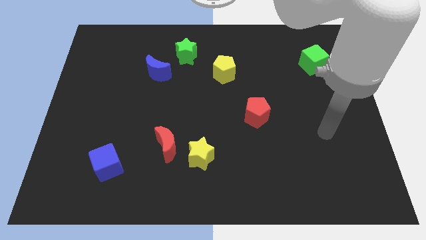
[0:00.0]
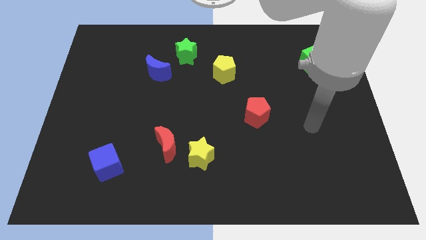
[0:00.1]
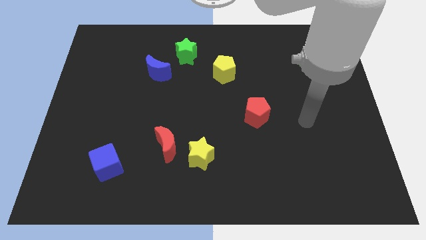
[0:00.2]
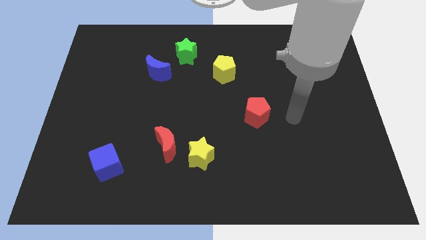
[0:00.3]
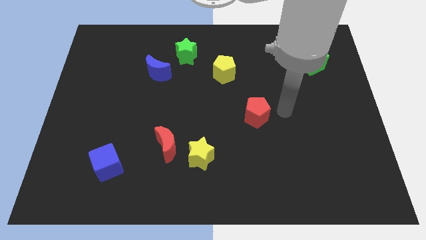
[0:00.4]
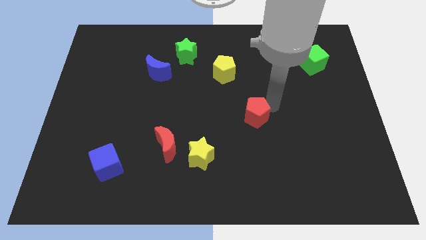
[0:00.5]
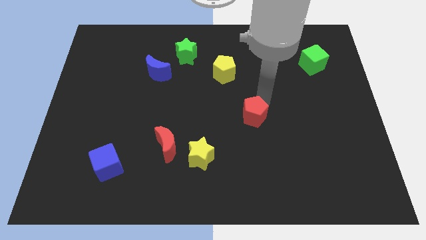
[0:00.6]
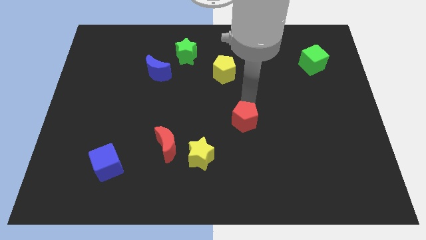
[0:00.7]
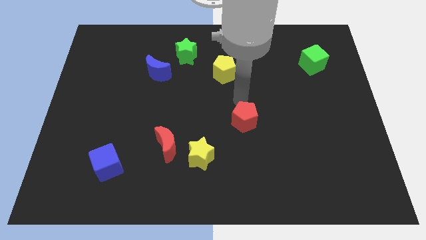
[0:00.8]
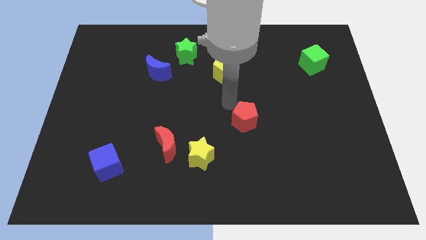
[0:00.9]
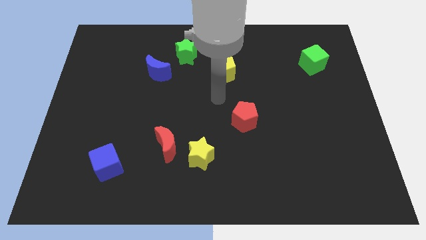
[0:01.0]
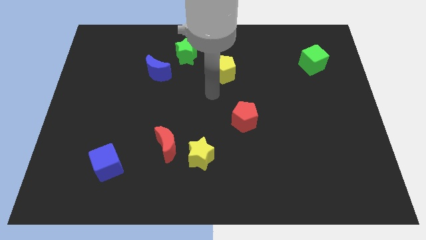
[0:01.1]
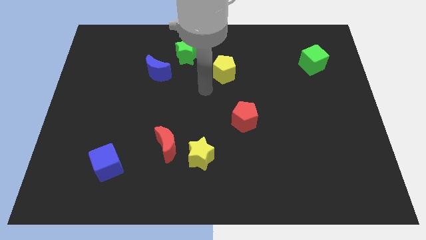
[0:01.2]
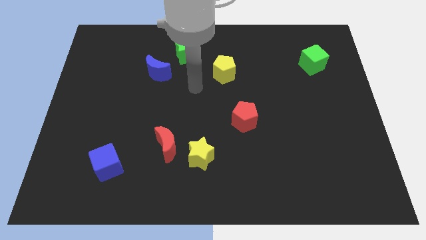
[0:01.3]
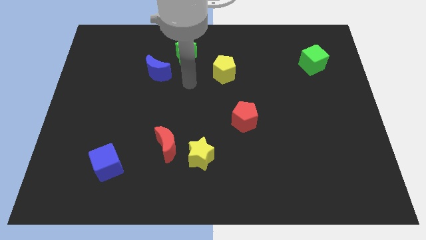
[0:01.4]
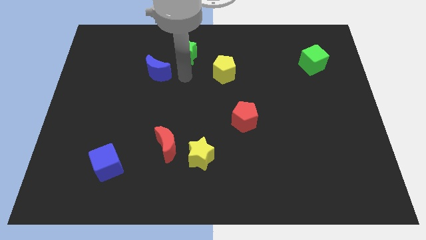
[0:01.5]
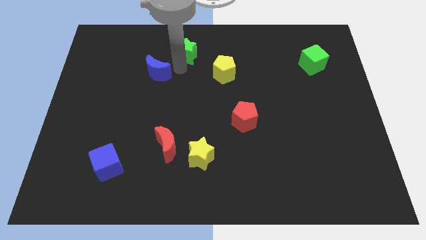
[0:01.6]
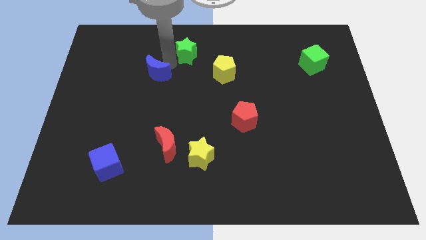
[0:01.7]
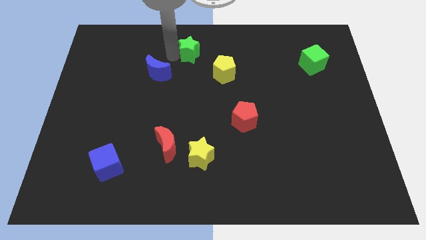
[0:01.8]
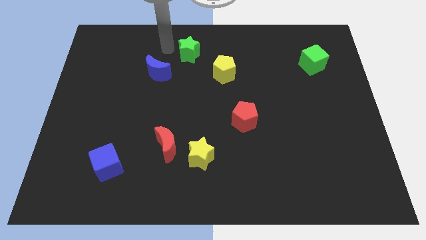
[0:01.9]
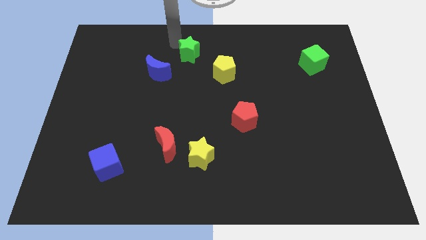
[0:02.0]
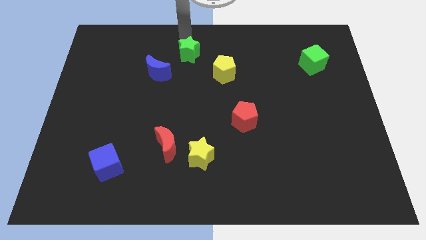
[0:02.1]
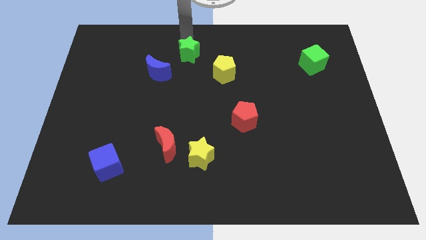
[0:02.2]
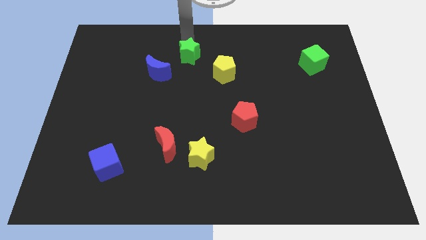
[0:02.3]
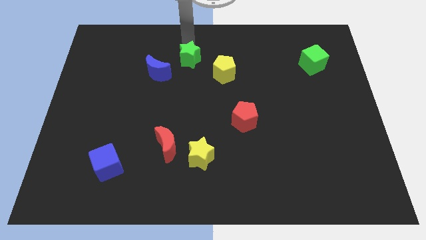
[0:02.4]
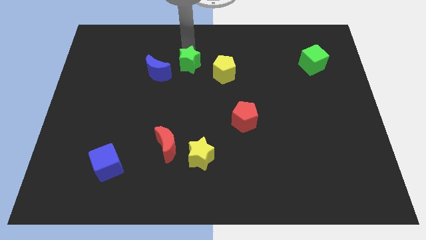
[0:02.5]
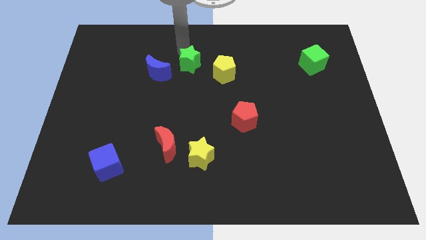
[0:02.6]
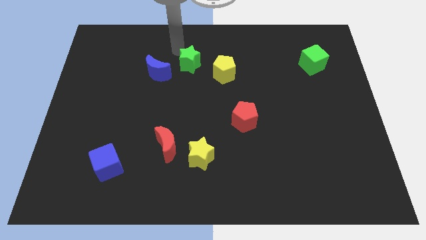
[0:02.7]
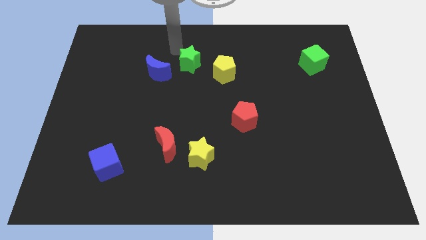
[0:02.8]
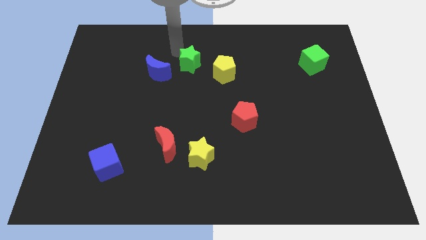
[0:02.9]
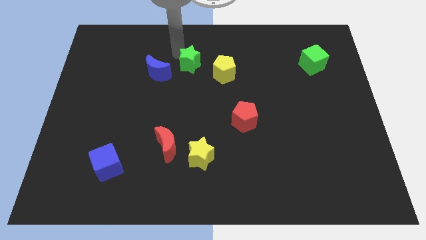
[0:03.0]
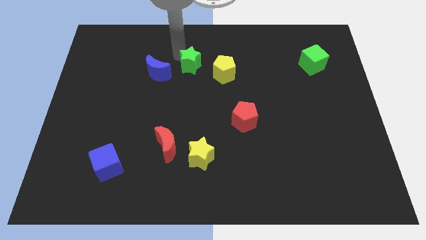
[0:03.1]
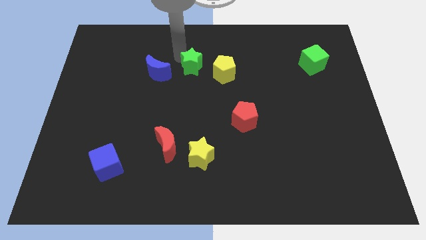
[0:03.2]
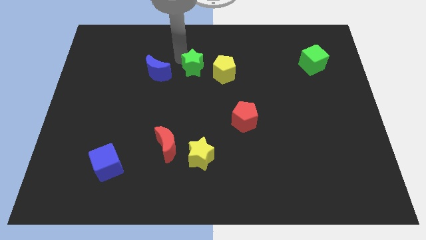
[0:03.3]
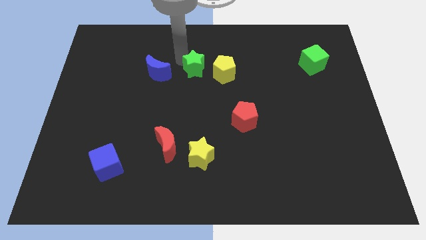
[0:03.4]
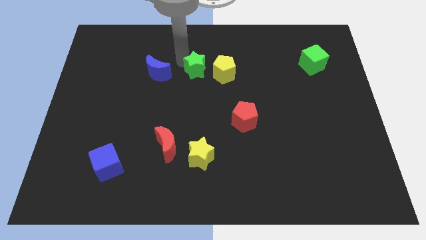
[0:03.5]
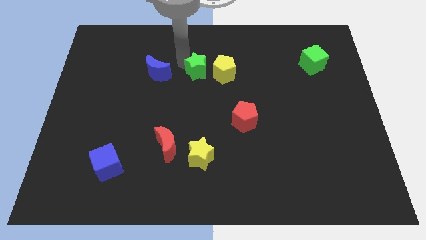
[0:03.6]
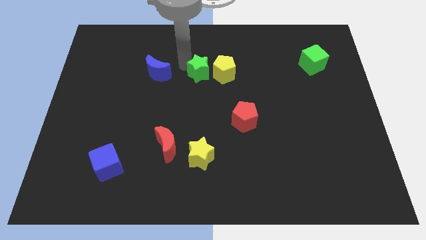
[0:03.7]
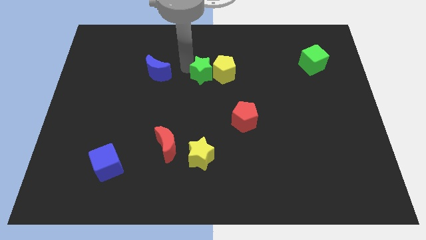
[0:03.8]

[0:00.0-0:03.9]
push the green star downwards and right slightly

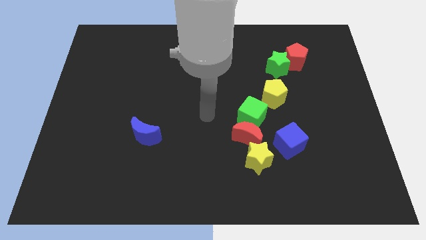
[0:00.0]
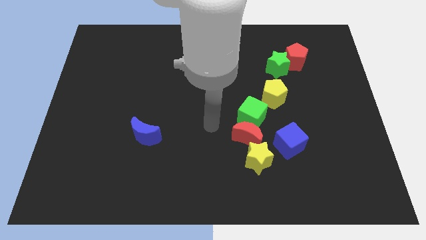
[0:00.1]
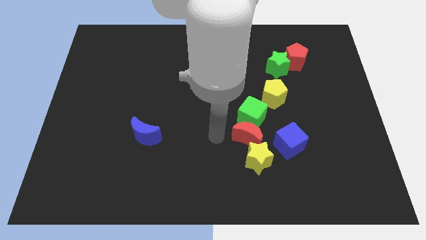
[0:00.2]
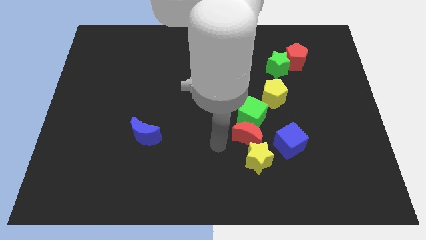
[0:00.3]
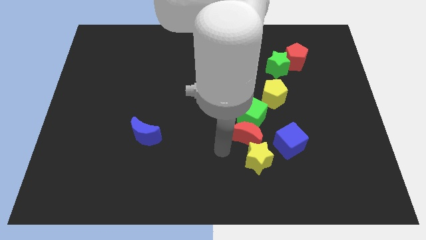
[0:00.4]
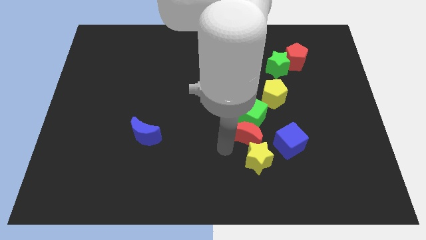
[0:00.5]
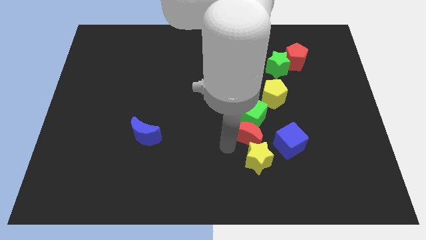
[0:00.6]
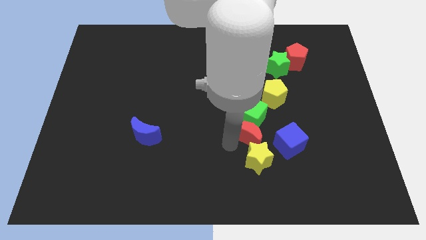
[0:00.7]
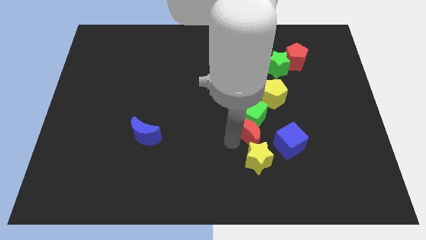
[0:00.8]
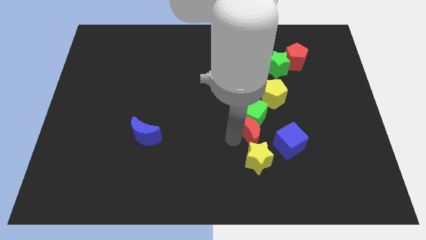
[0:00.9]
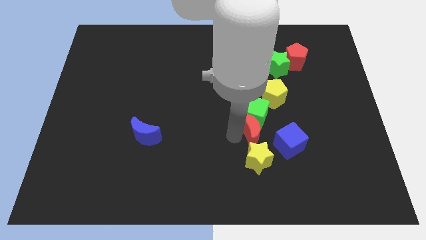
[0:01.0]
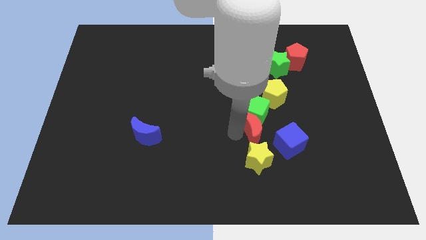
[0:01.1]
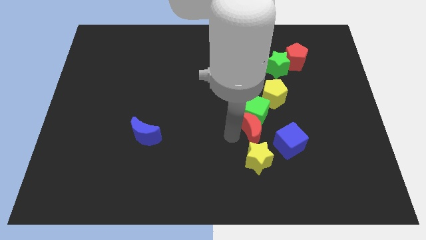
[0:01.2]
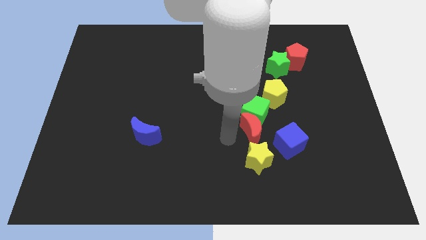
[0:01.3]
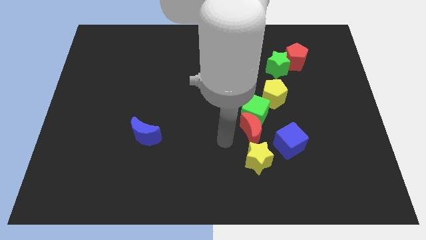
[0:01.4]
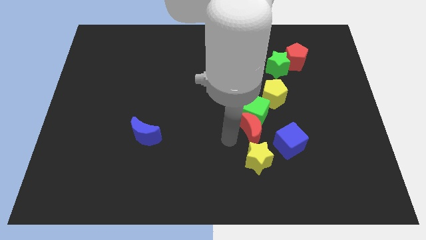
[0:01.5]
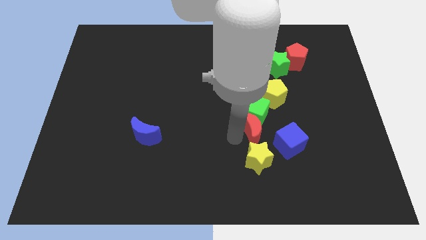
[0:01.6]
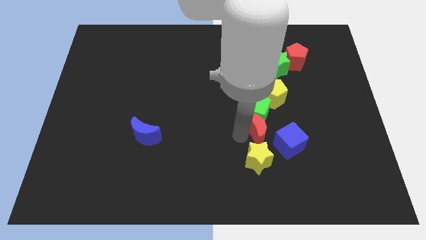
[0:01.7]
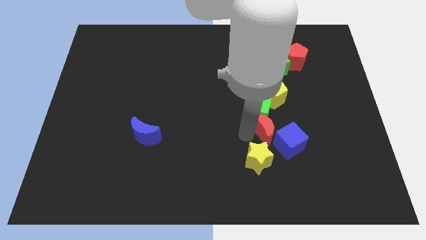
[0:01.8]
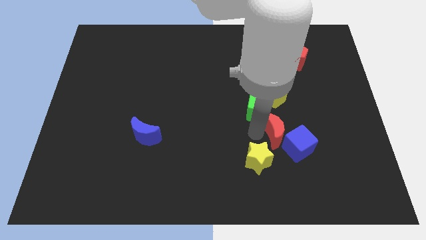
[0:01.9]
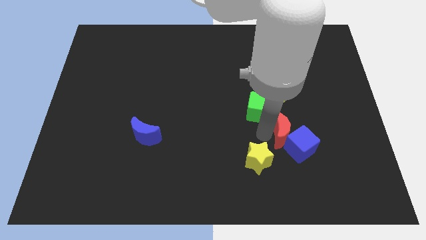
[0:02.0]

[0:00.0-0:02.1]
slightly push the red moon to the right

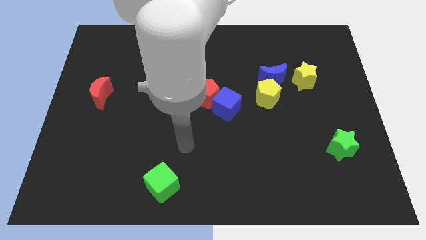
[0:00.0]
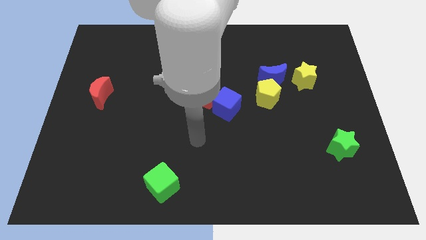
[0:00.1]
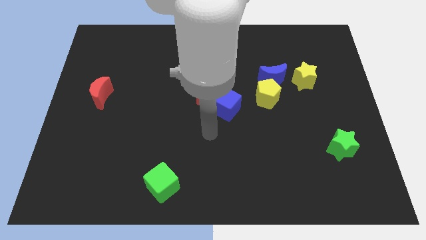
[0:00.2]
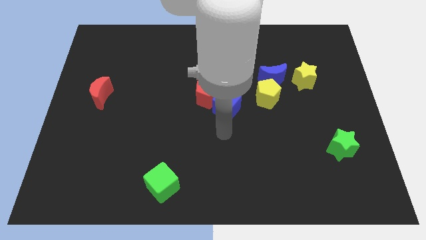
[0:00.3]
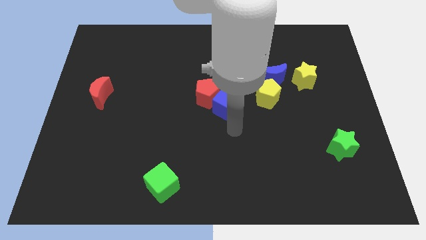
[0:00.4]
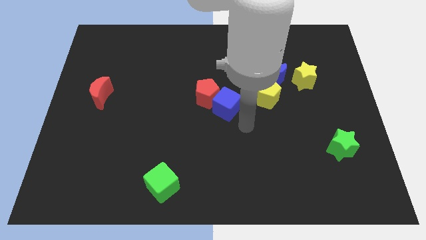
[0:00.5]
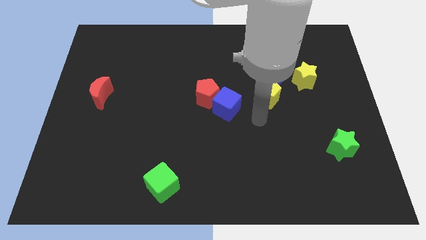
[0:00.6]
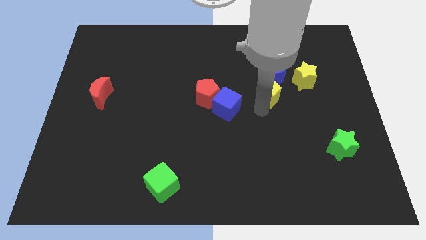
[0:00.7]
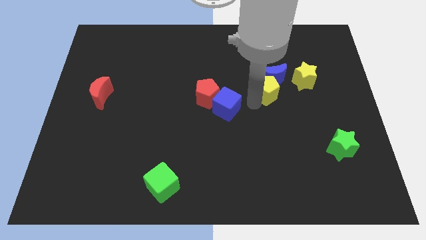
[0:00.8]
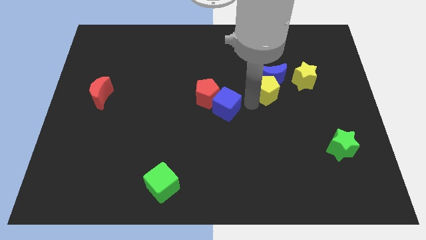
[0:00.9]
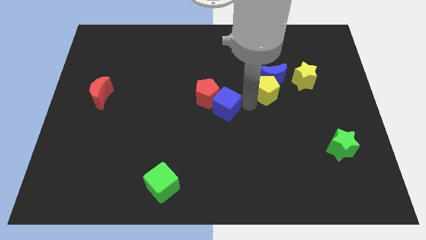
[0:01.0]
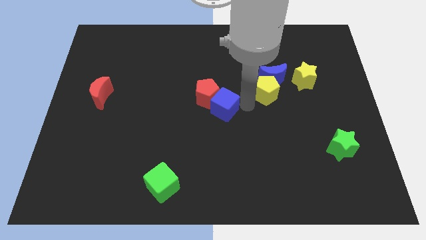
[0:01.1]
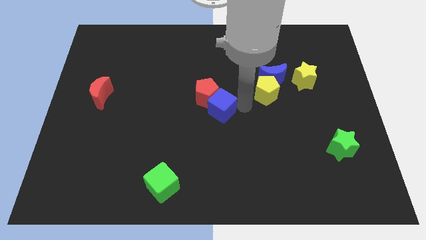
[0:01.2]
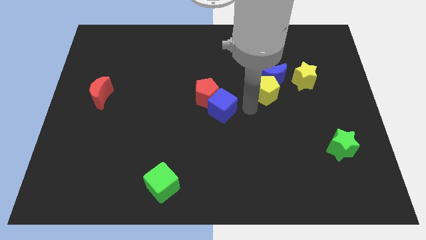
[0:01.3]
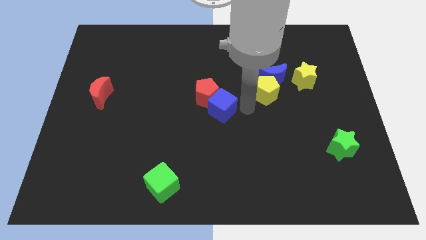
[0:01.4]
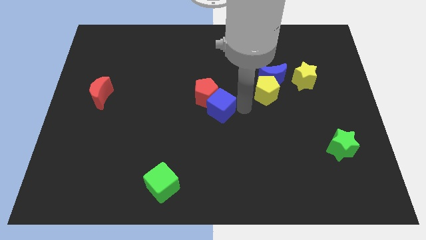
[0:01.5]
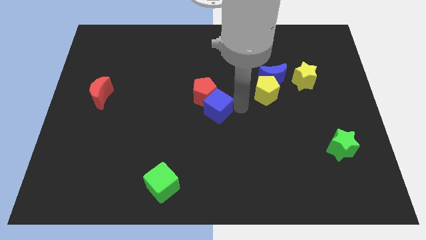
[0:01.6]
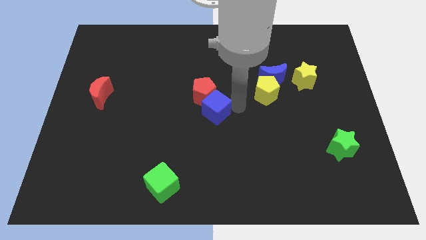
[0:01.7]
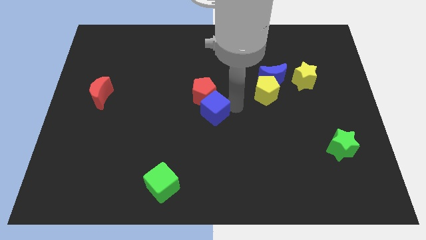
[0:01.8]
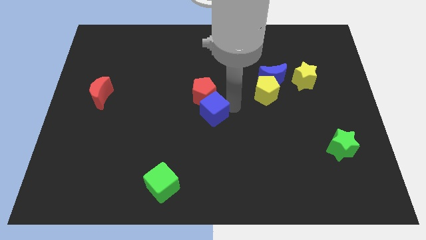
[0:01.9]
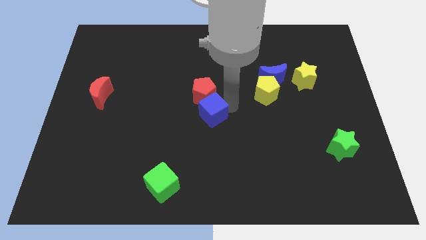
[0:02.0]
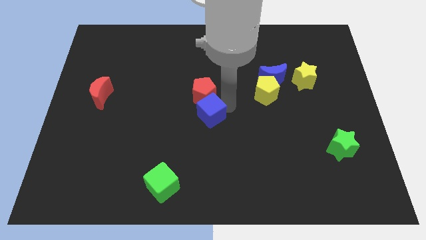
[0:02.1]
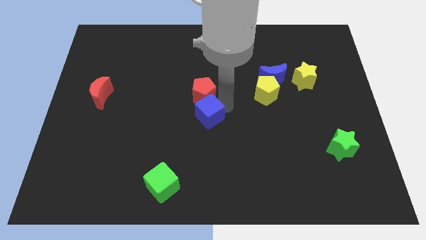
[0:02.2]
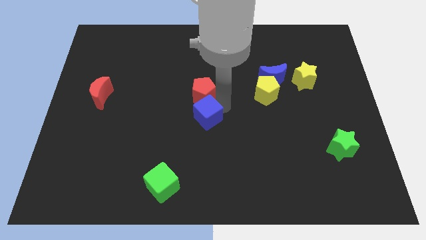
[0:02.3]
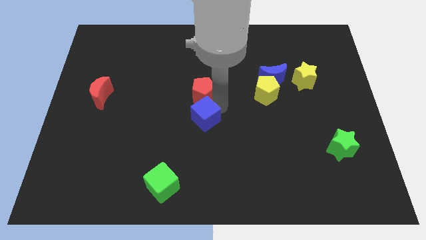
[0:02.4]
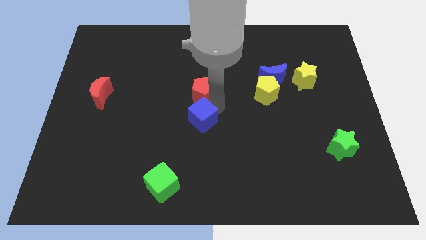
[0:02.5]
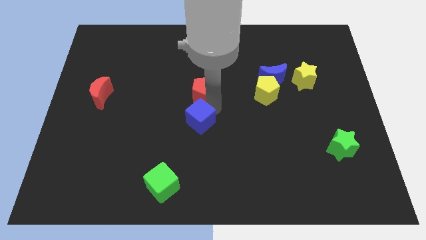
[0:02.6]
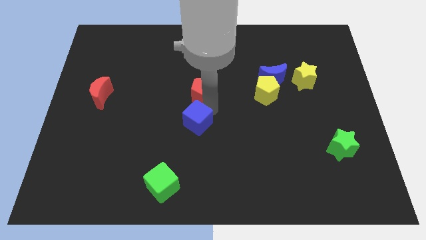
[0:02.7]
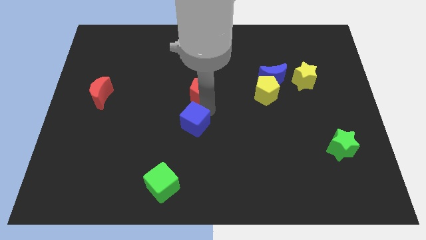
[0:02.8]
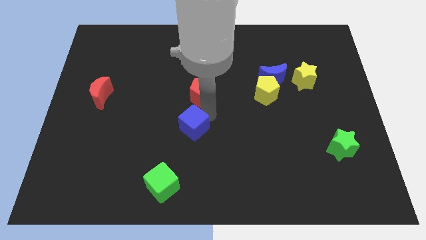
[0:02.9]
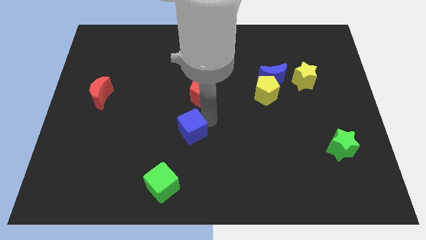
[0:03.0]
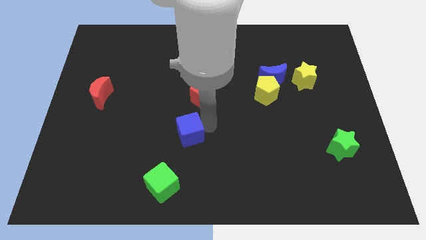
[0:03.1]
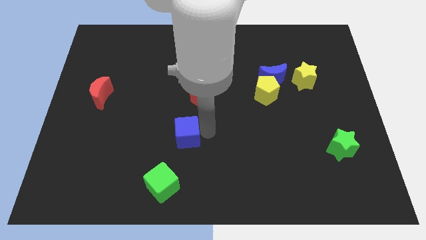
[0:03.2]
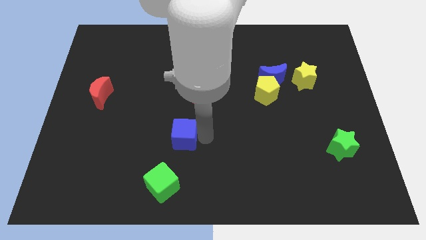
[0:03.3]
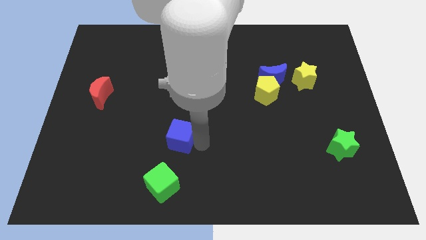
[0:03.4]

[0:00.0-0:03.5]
move the blue cube left a little
